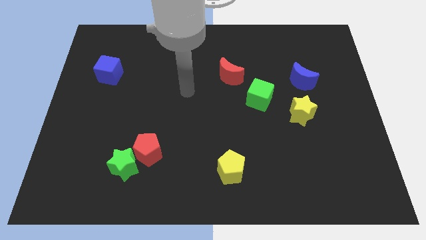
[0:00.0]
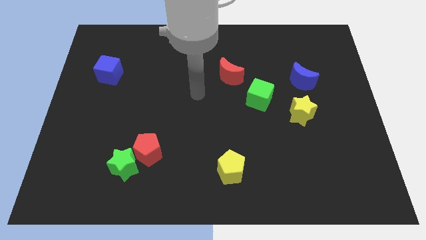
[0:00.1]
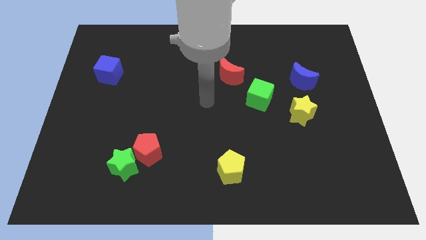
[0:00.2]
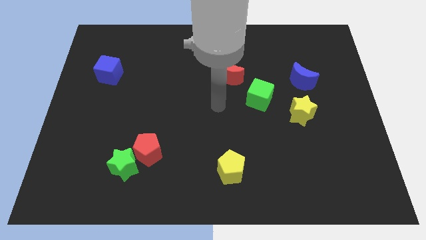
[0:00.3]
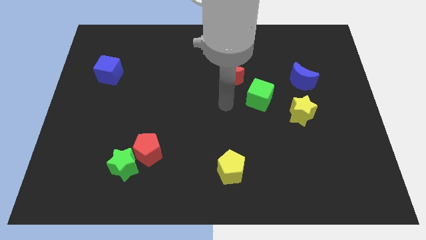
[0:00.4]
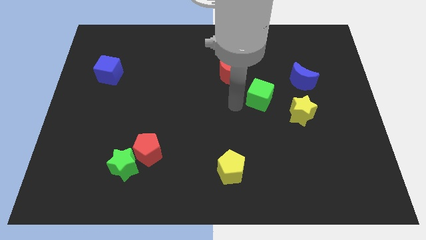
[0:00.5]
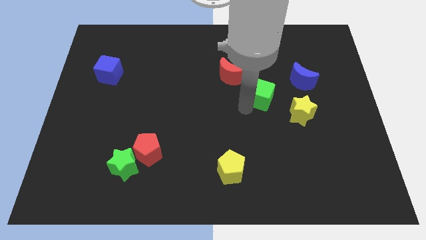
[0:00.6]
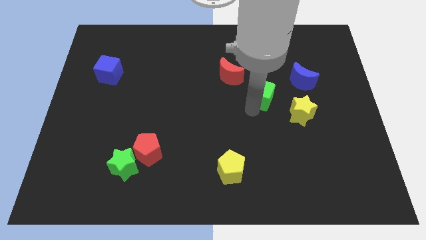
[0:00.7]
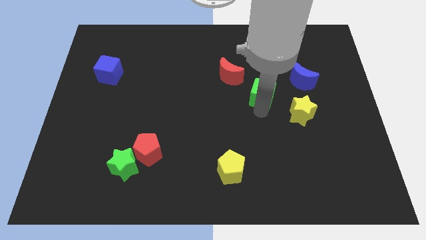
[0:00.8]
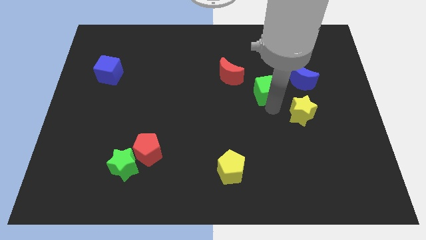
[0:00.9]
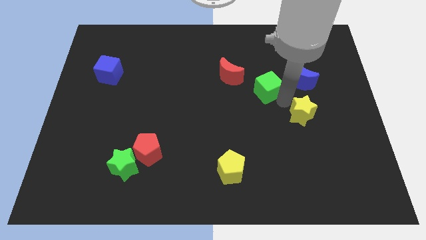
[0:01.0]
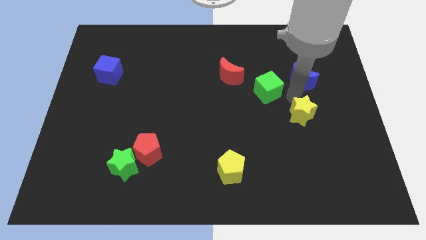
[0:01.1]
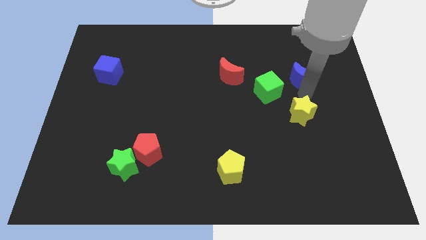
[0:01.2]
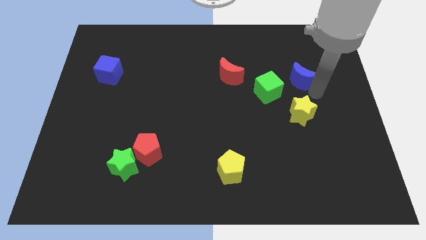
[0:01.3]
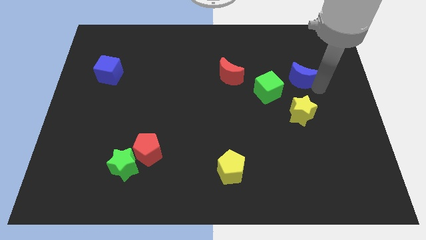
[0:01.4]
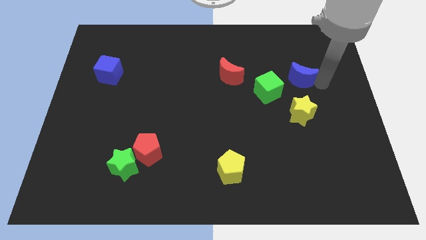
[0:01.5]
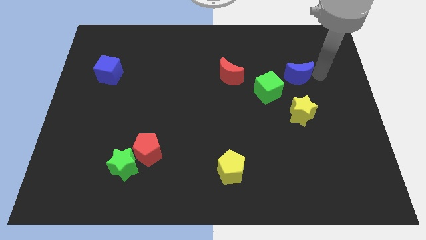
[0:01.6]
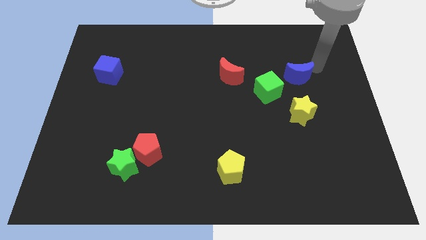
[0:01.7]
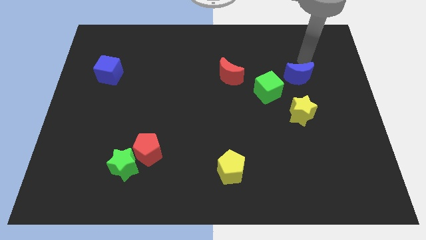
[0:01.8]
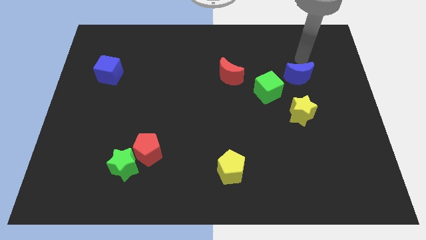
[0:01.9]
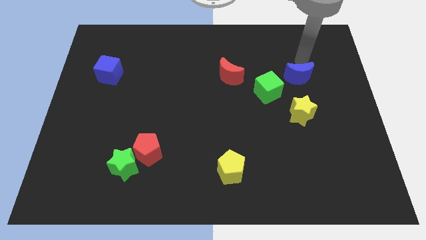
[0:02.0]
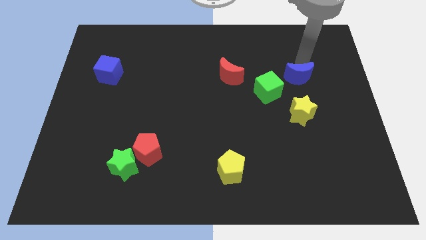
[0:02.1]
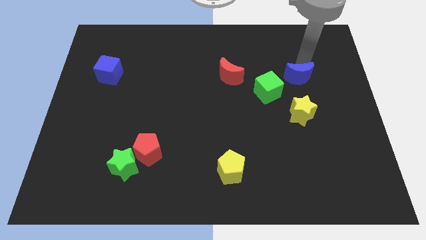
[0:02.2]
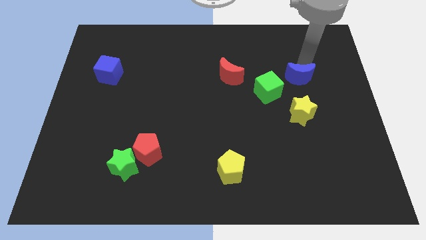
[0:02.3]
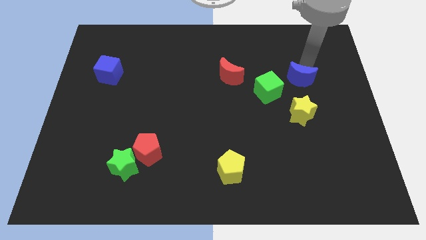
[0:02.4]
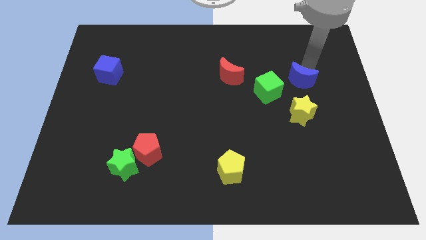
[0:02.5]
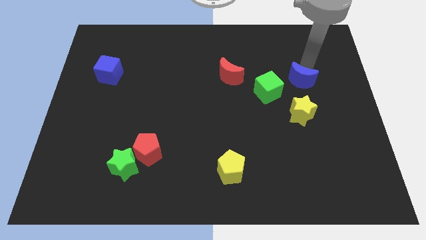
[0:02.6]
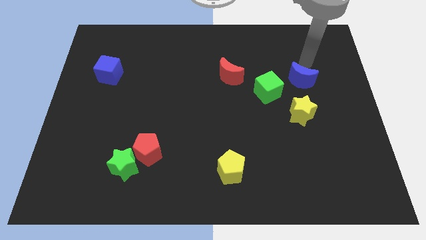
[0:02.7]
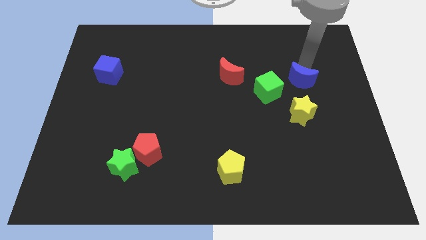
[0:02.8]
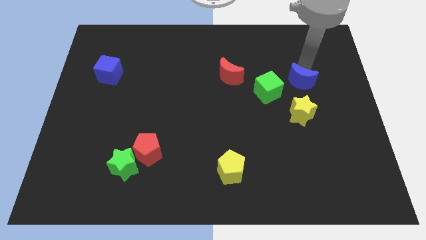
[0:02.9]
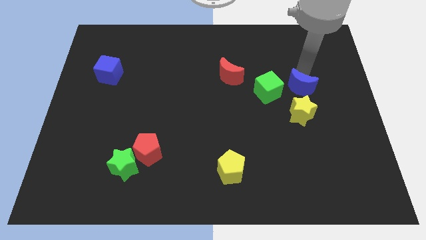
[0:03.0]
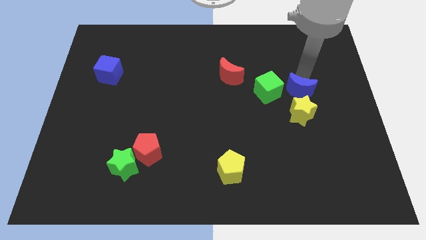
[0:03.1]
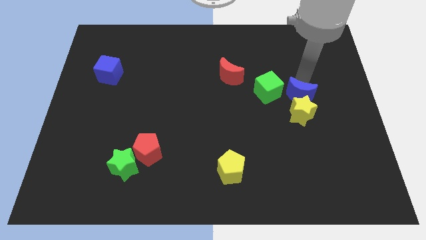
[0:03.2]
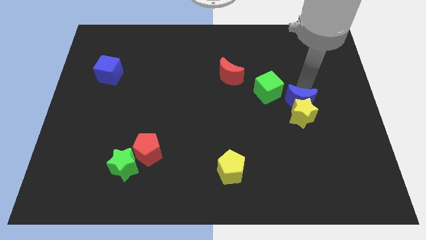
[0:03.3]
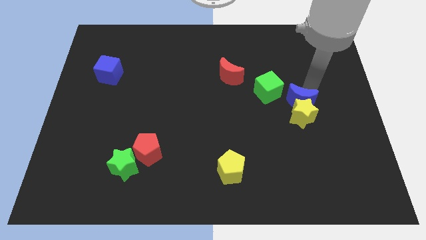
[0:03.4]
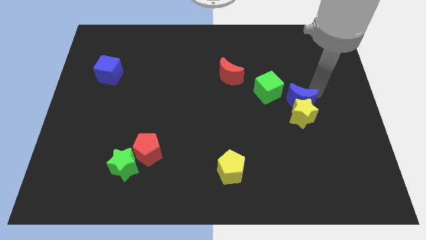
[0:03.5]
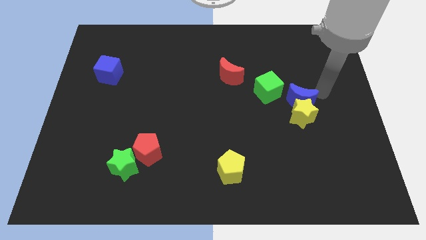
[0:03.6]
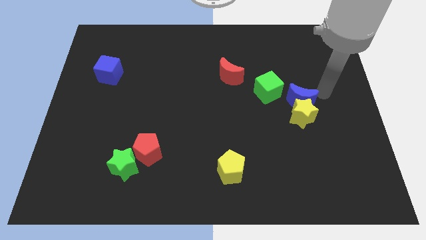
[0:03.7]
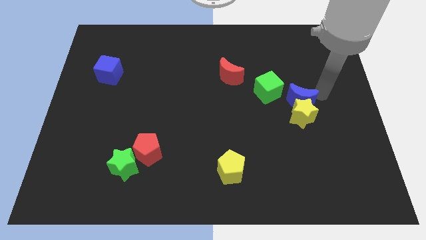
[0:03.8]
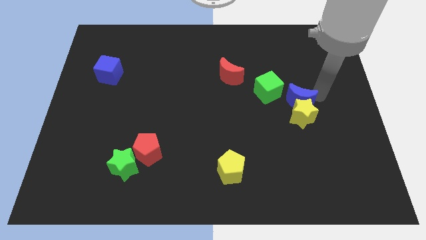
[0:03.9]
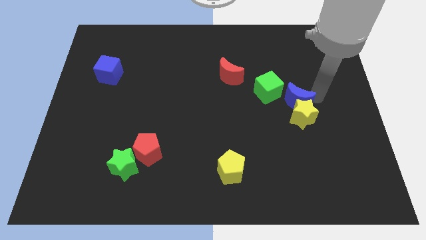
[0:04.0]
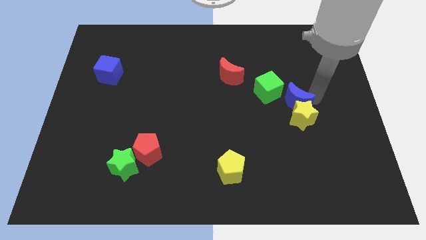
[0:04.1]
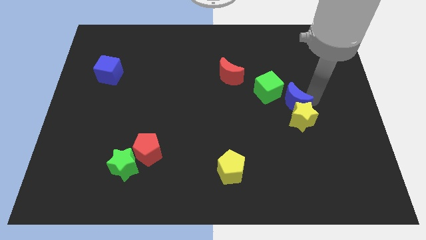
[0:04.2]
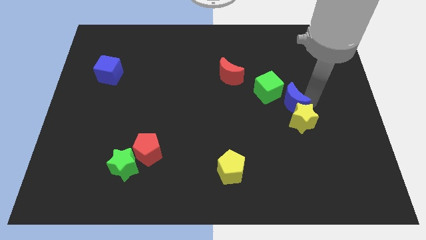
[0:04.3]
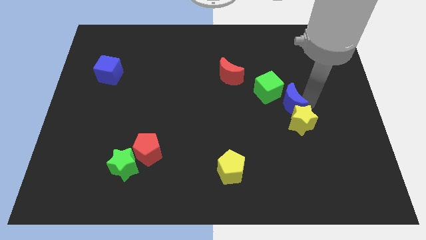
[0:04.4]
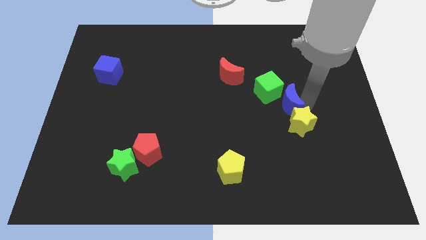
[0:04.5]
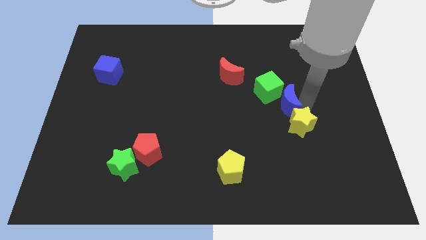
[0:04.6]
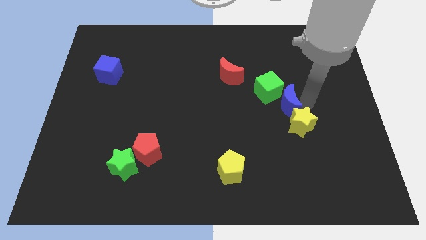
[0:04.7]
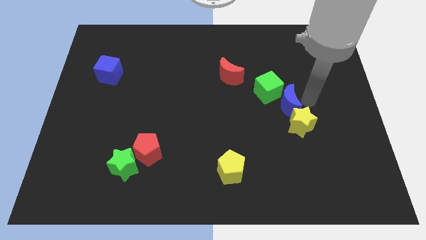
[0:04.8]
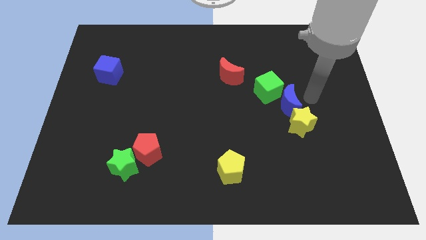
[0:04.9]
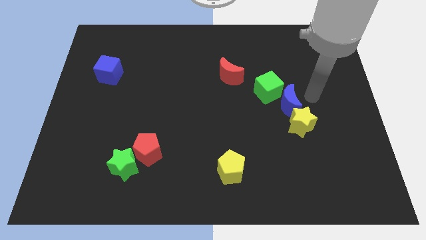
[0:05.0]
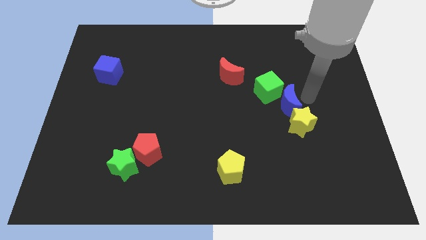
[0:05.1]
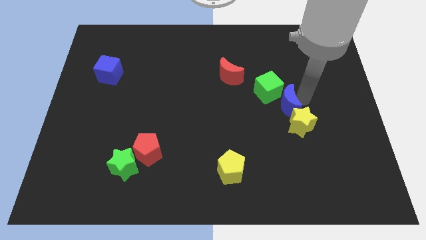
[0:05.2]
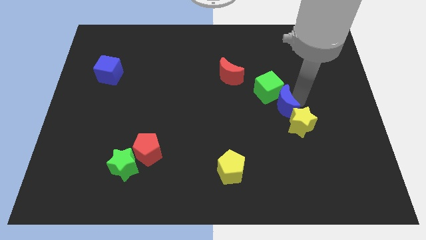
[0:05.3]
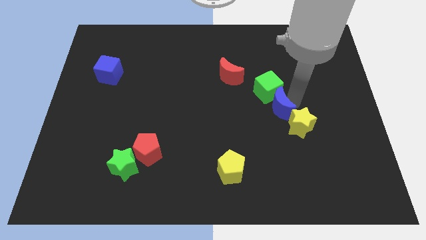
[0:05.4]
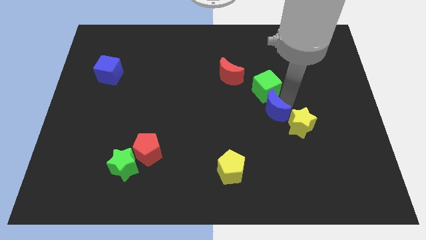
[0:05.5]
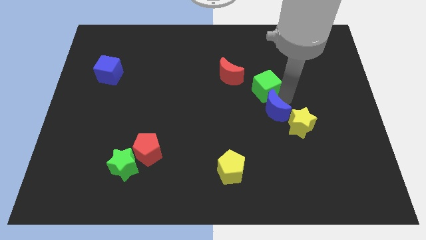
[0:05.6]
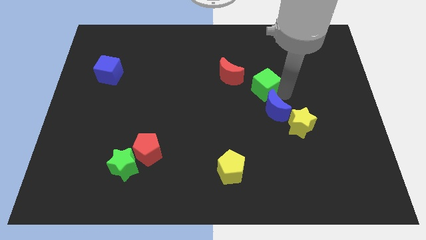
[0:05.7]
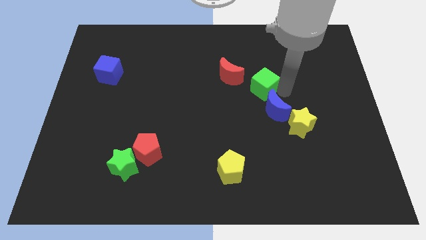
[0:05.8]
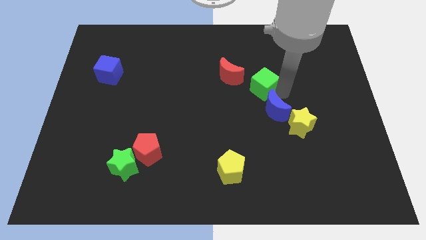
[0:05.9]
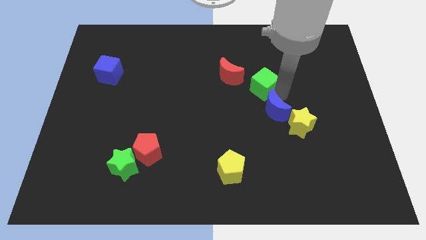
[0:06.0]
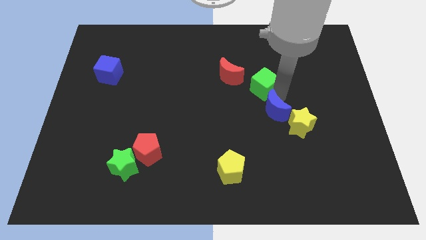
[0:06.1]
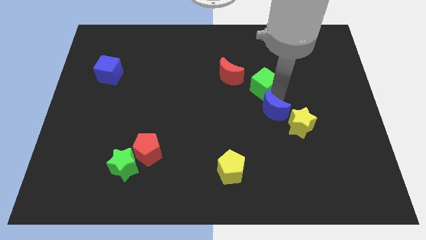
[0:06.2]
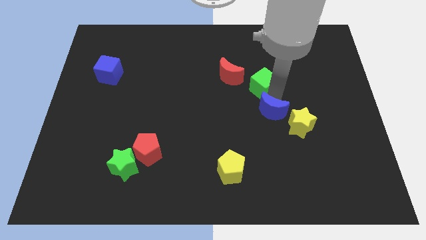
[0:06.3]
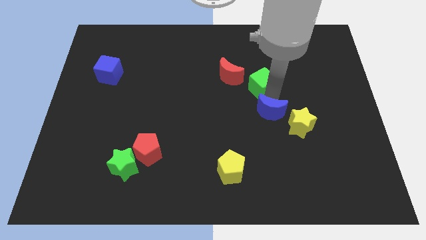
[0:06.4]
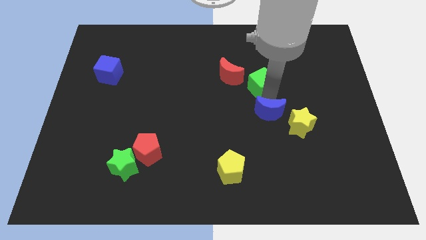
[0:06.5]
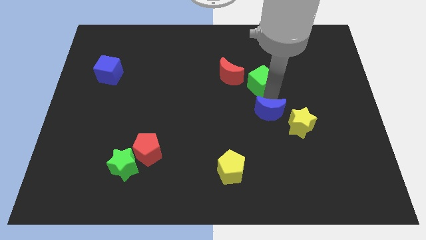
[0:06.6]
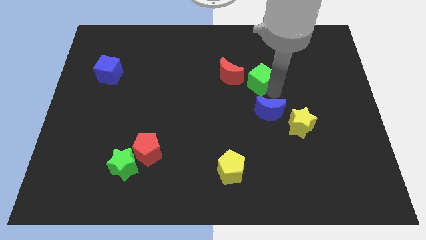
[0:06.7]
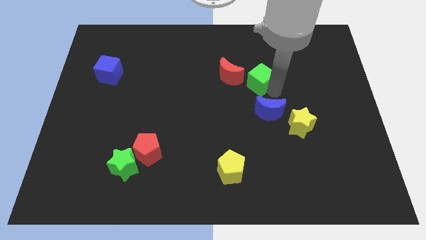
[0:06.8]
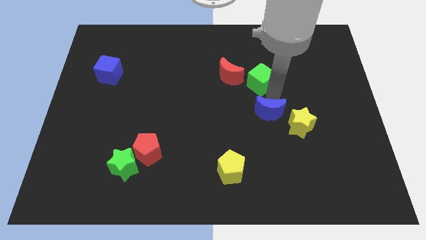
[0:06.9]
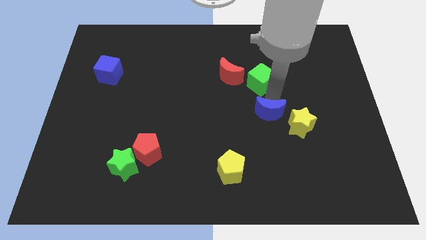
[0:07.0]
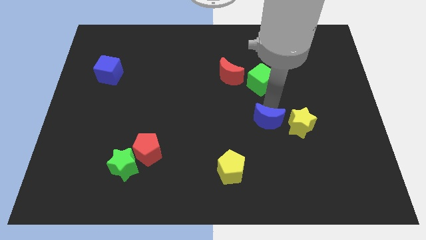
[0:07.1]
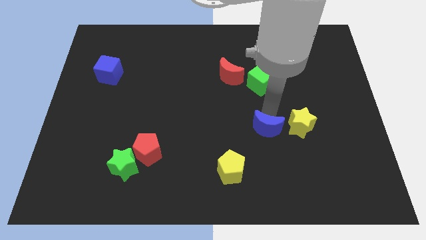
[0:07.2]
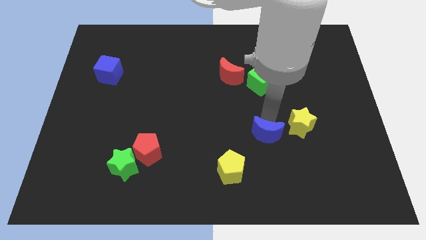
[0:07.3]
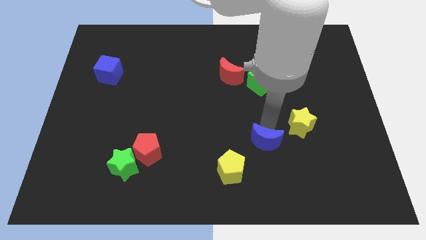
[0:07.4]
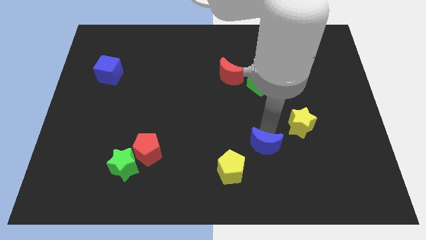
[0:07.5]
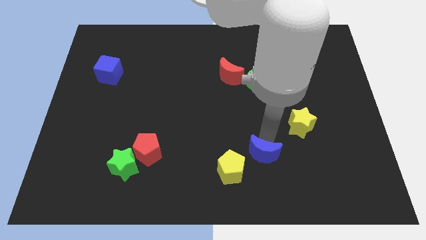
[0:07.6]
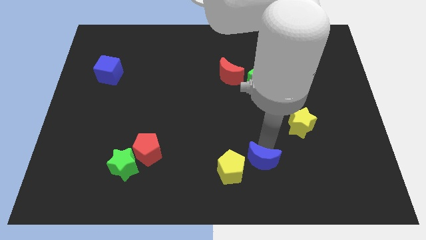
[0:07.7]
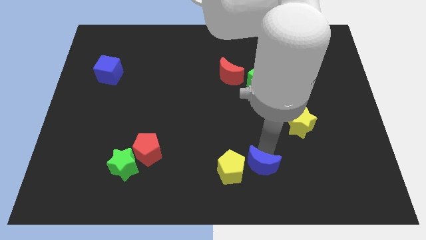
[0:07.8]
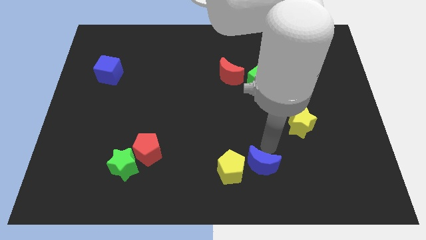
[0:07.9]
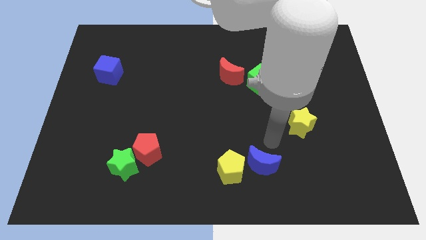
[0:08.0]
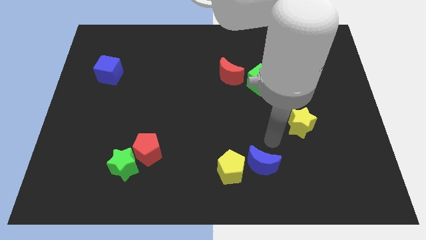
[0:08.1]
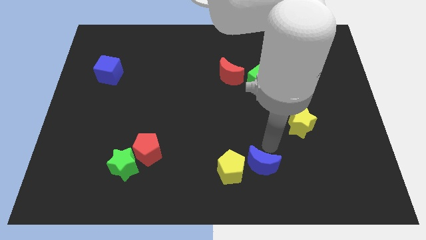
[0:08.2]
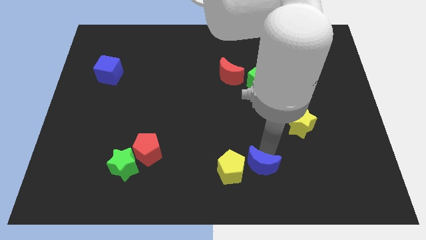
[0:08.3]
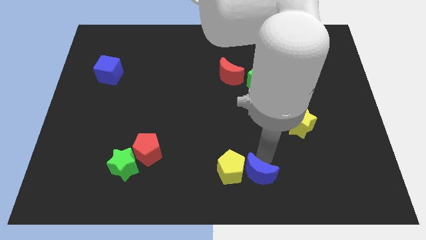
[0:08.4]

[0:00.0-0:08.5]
move the blue moon to the bottom
